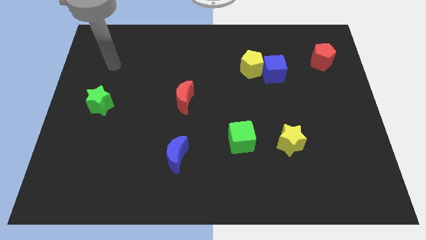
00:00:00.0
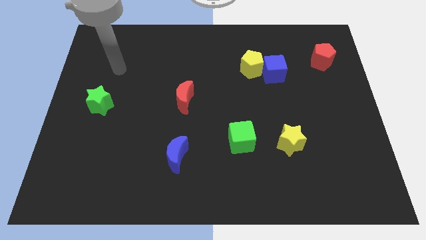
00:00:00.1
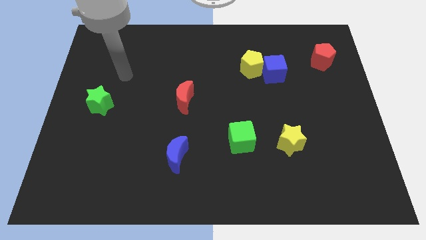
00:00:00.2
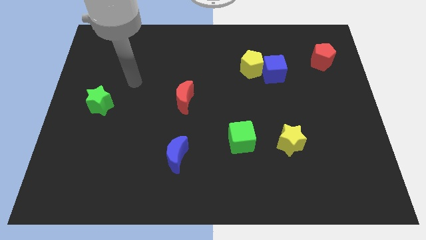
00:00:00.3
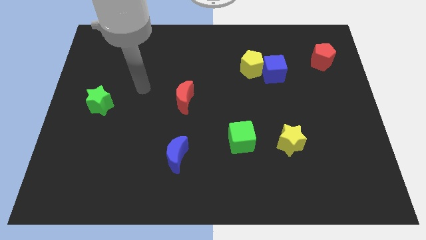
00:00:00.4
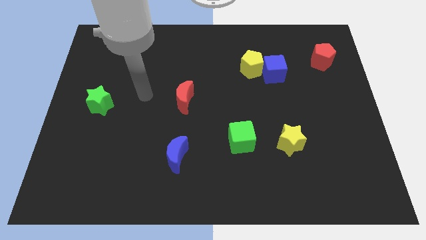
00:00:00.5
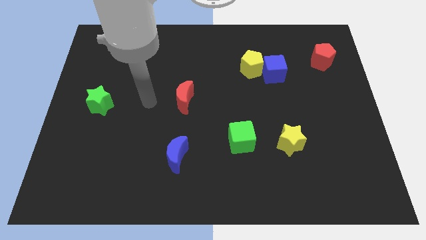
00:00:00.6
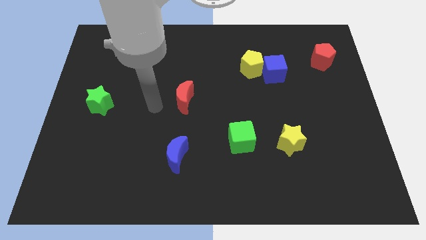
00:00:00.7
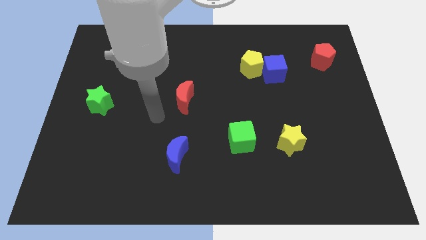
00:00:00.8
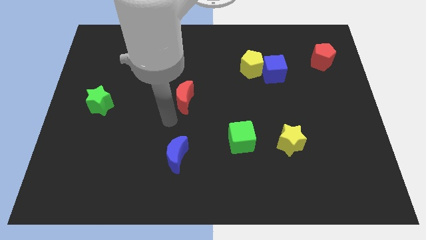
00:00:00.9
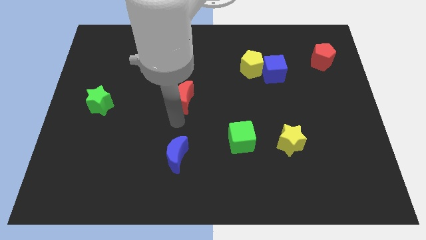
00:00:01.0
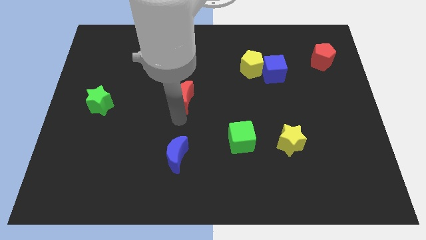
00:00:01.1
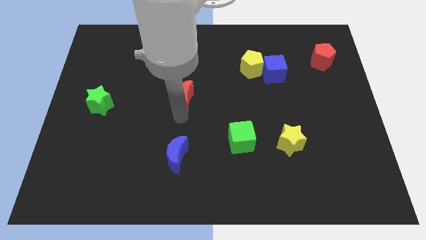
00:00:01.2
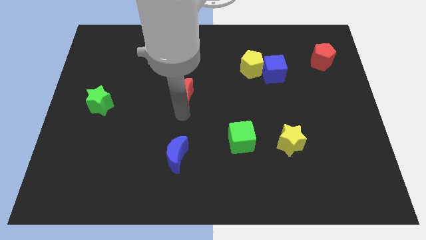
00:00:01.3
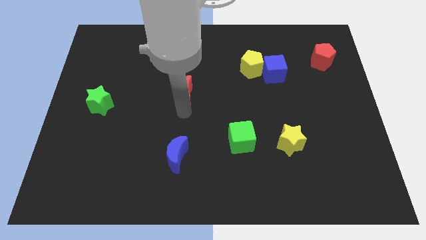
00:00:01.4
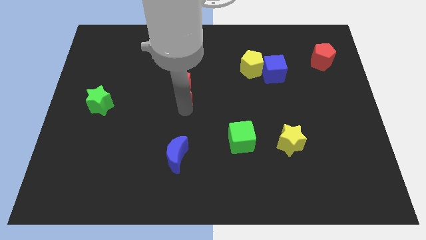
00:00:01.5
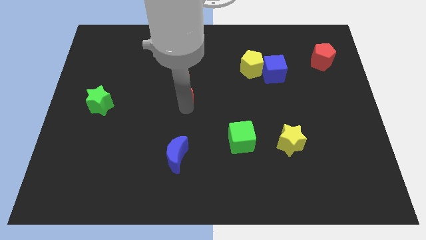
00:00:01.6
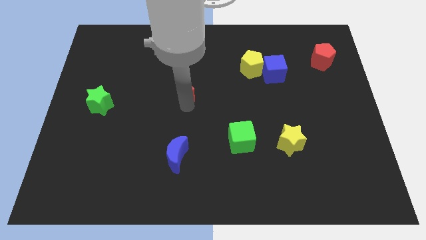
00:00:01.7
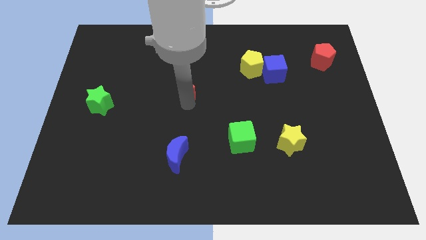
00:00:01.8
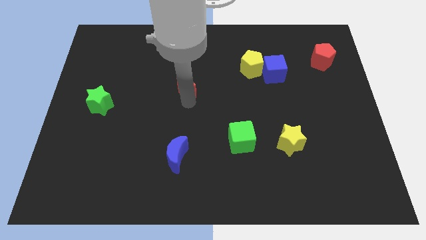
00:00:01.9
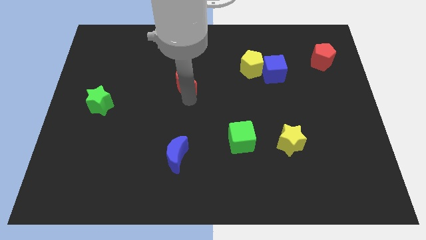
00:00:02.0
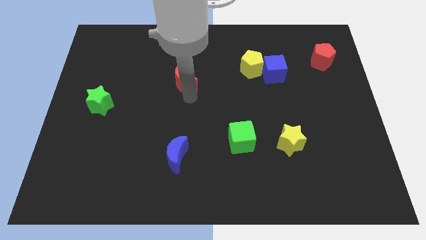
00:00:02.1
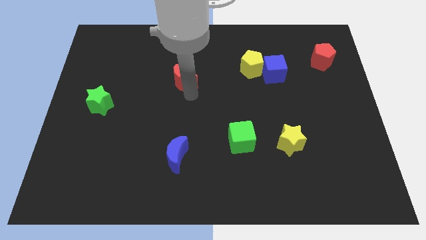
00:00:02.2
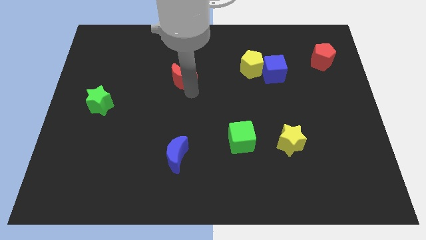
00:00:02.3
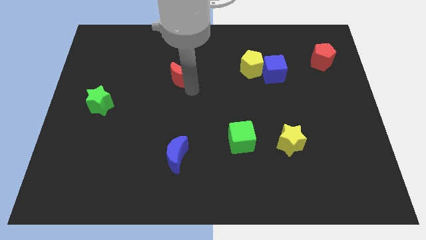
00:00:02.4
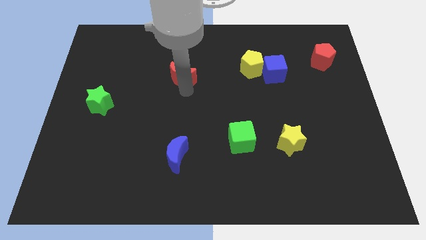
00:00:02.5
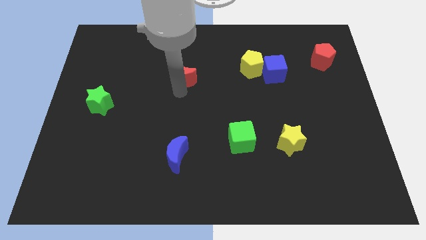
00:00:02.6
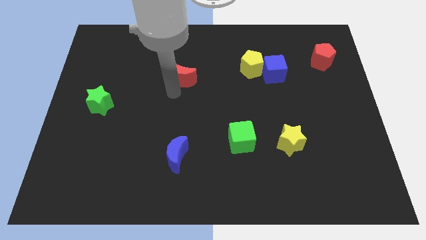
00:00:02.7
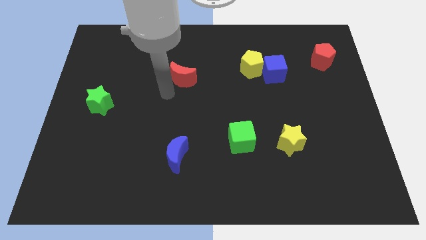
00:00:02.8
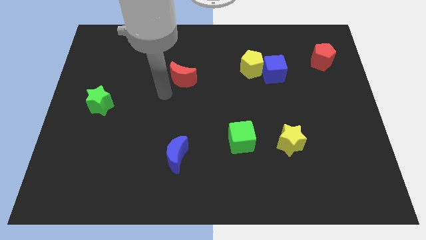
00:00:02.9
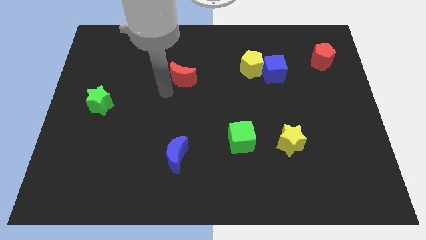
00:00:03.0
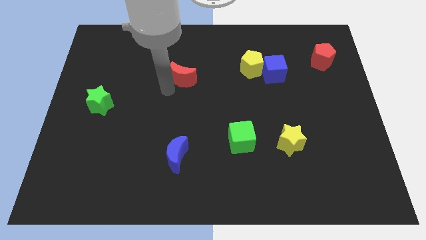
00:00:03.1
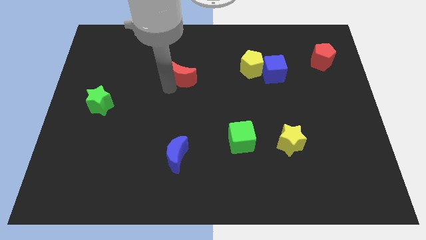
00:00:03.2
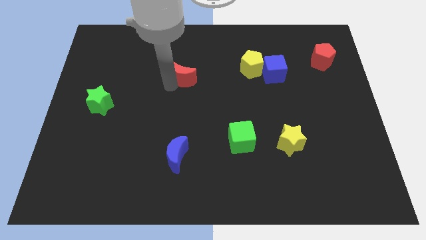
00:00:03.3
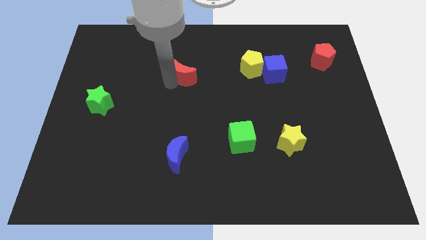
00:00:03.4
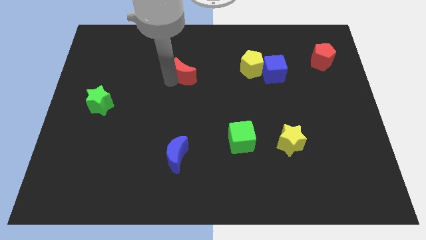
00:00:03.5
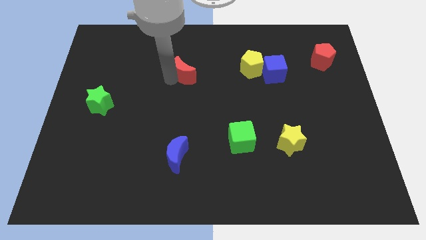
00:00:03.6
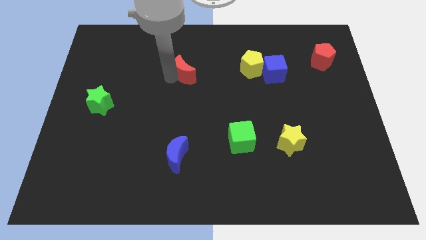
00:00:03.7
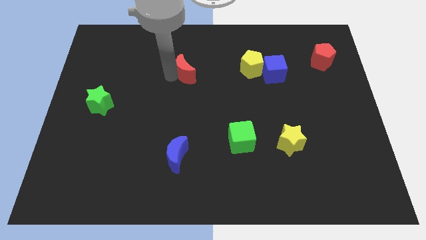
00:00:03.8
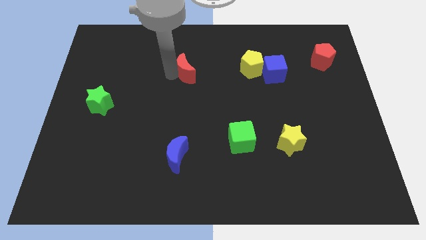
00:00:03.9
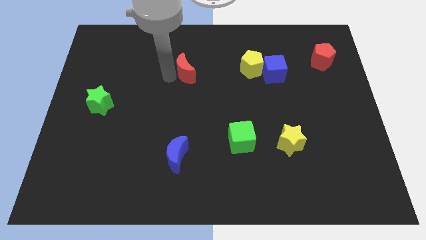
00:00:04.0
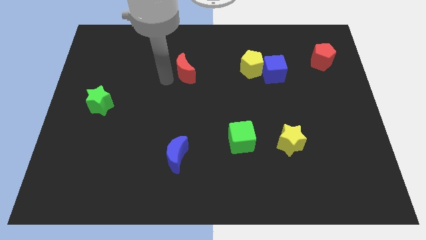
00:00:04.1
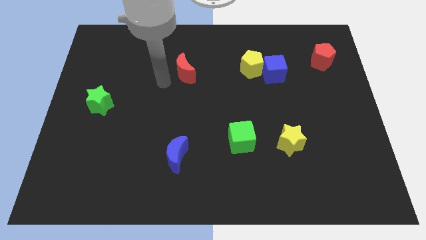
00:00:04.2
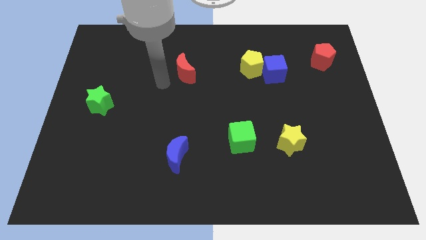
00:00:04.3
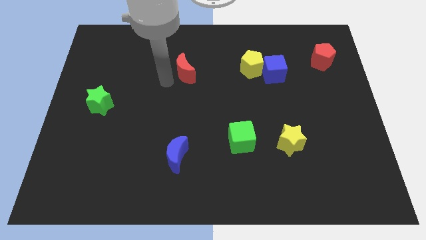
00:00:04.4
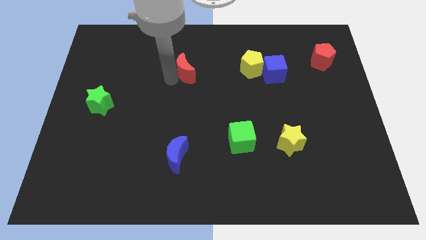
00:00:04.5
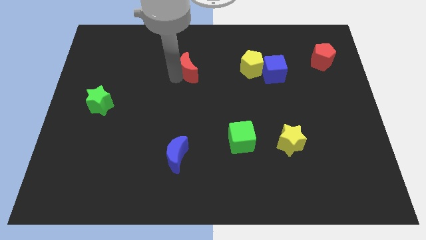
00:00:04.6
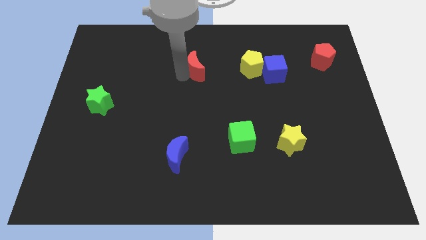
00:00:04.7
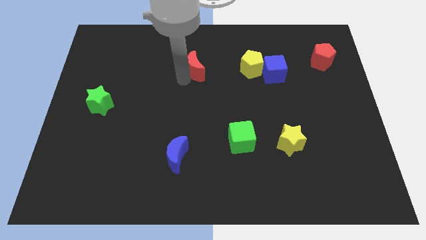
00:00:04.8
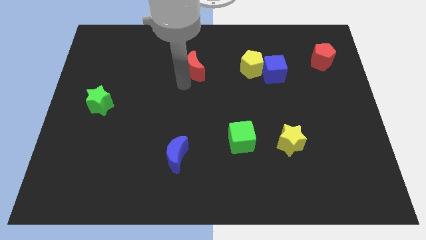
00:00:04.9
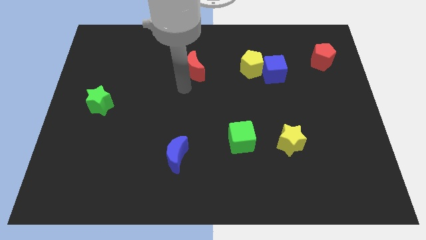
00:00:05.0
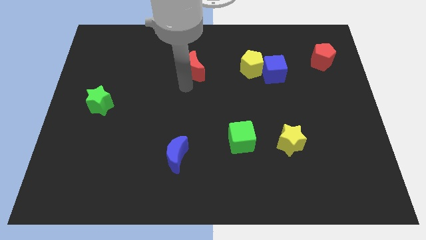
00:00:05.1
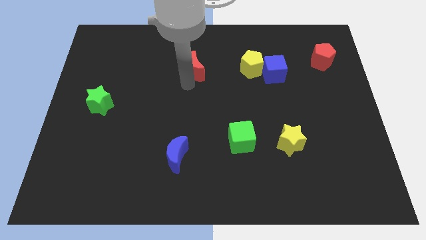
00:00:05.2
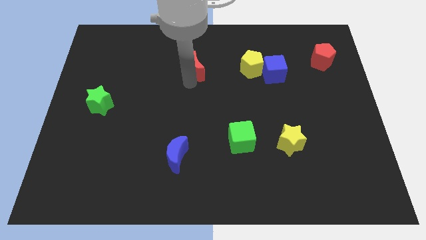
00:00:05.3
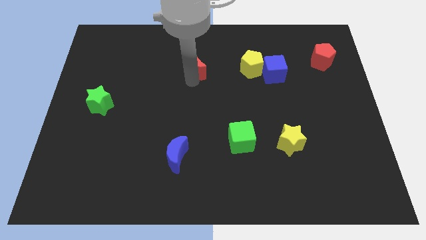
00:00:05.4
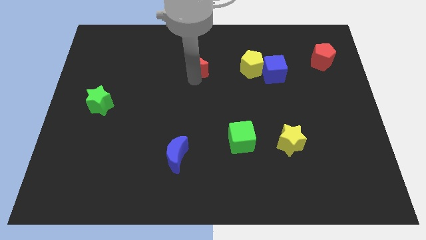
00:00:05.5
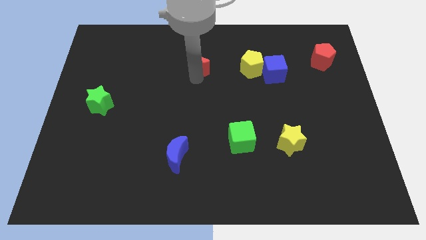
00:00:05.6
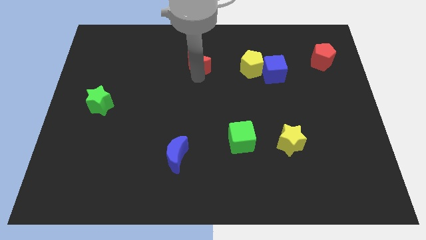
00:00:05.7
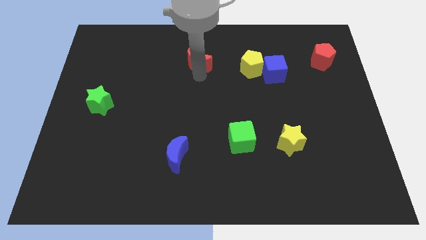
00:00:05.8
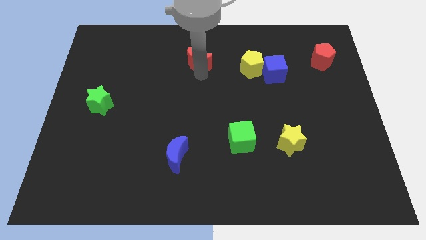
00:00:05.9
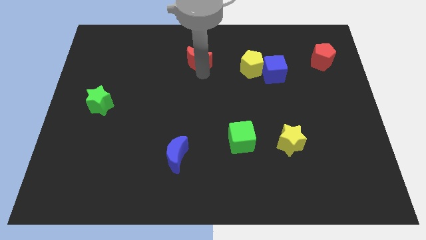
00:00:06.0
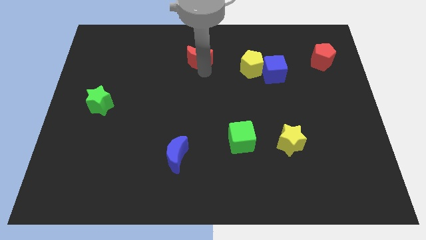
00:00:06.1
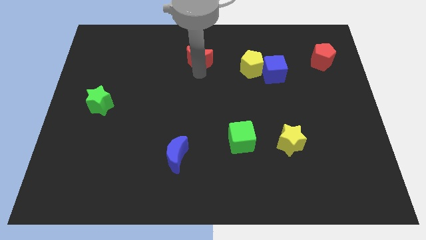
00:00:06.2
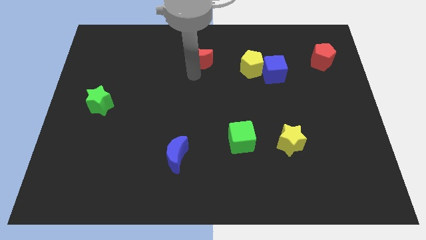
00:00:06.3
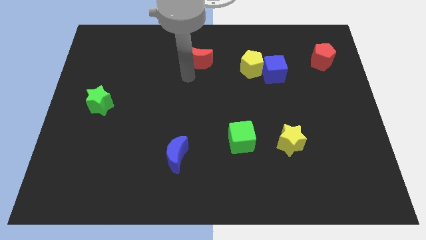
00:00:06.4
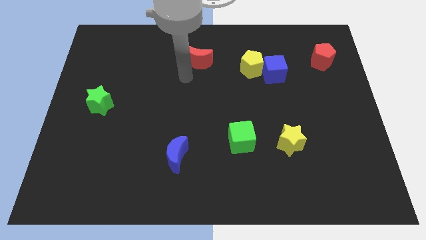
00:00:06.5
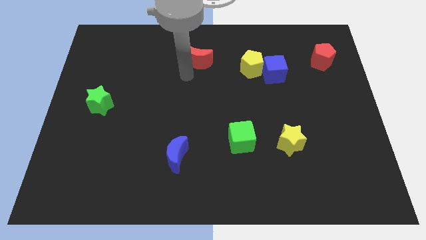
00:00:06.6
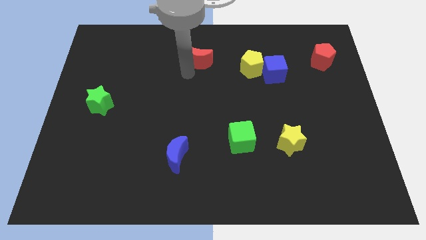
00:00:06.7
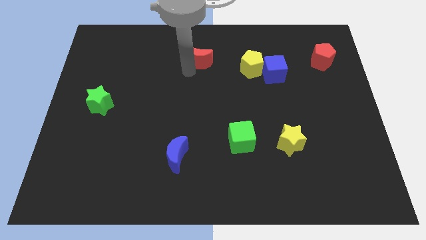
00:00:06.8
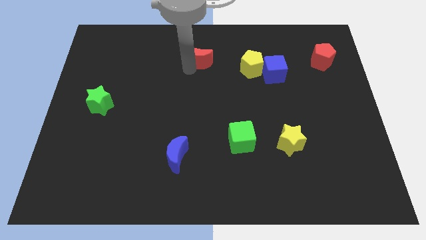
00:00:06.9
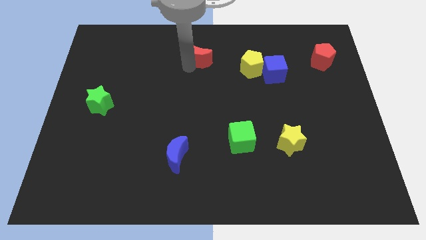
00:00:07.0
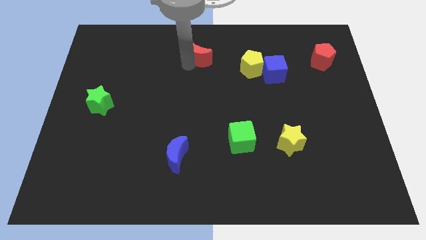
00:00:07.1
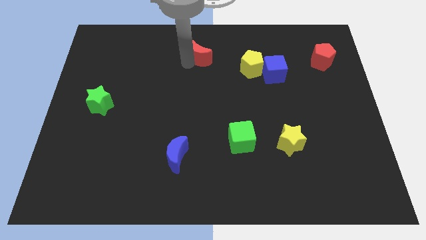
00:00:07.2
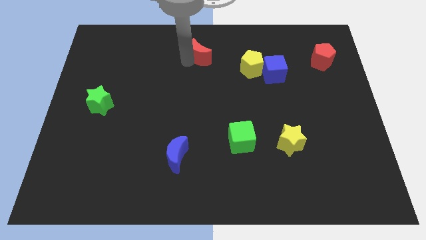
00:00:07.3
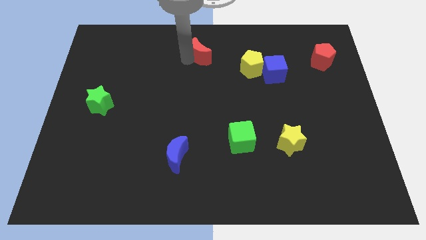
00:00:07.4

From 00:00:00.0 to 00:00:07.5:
move the red moon to the top
